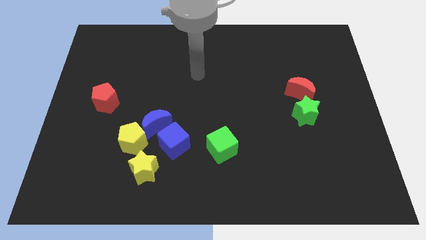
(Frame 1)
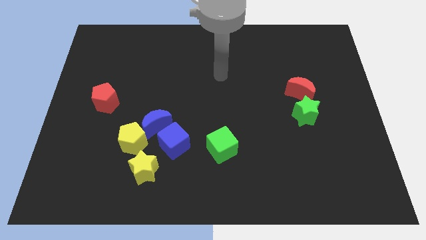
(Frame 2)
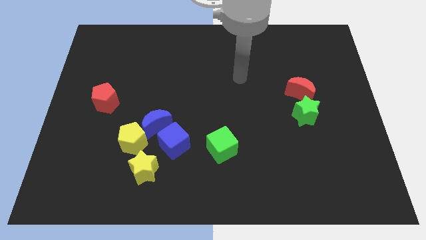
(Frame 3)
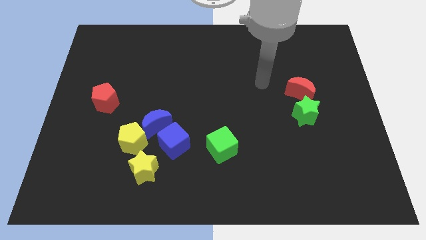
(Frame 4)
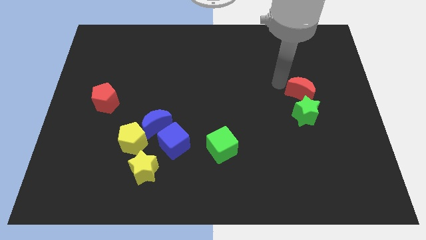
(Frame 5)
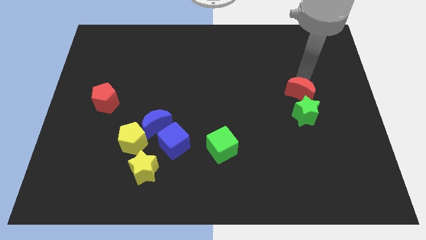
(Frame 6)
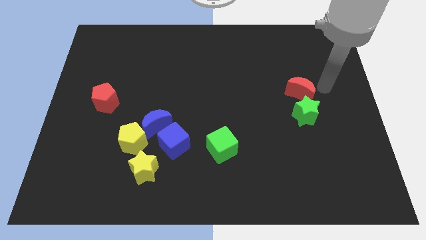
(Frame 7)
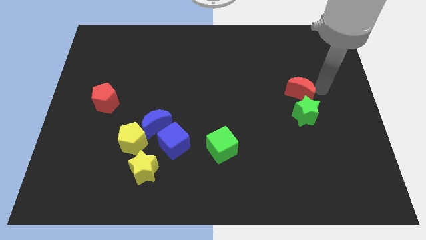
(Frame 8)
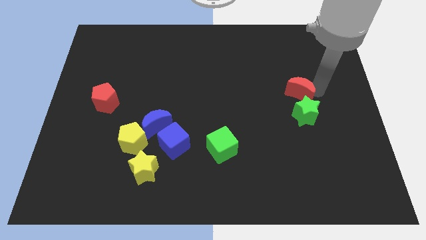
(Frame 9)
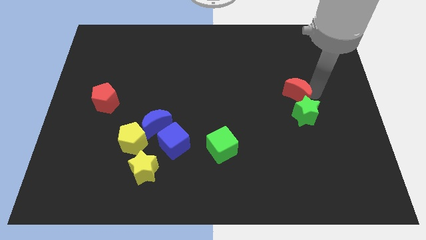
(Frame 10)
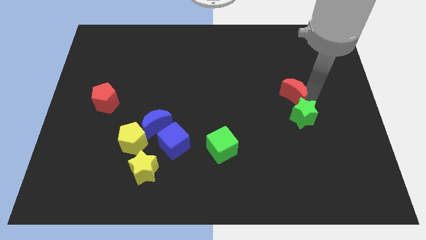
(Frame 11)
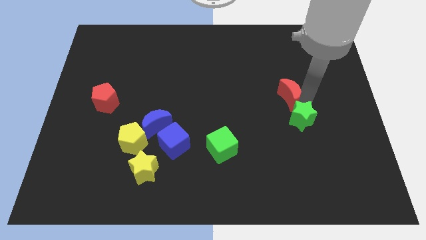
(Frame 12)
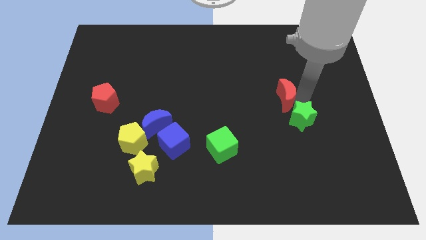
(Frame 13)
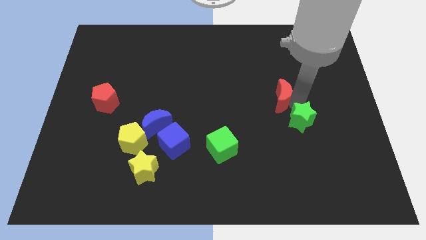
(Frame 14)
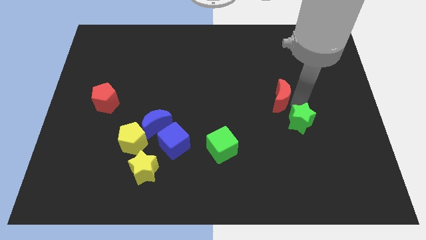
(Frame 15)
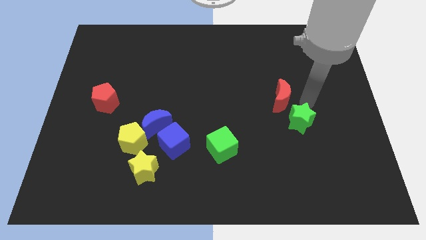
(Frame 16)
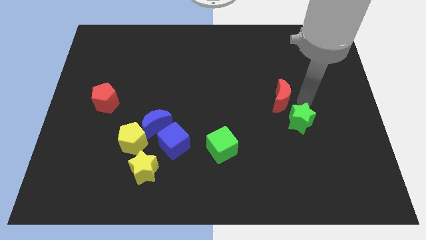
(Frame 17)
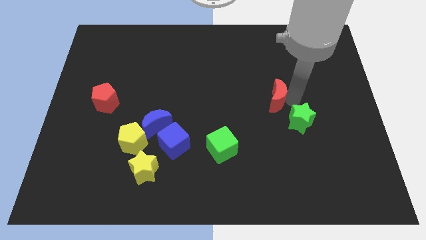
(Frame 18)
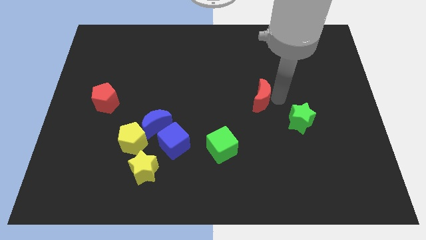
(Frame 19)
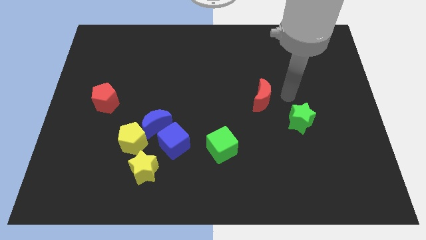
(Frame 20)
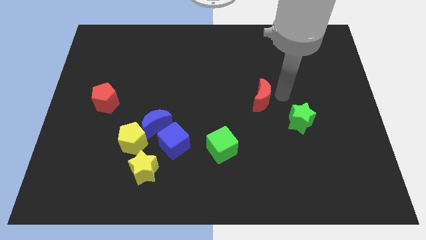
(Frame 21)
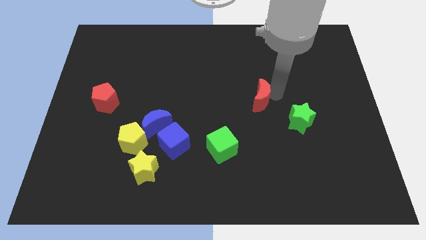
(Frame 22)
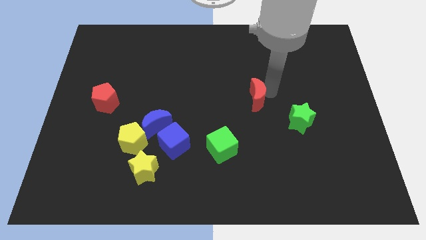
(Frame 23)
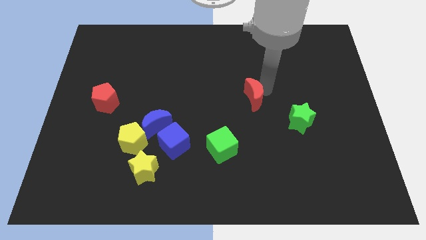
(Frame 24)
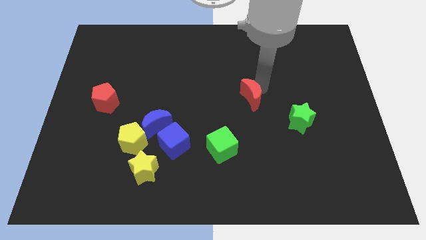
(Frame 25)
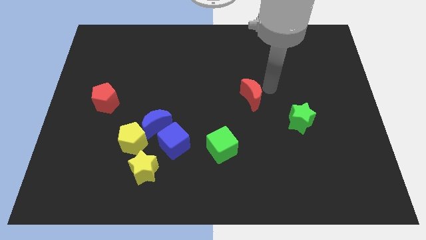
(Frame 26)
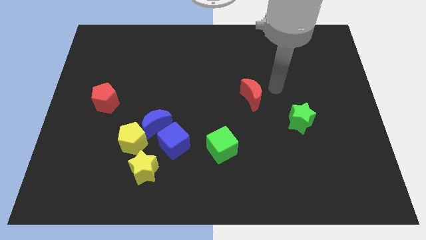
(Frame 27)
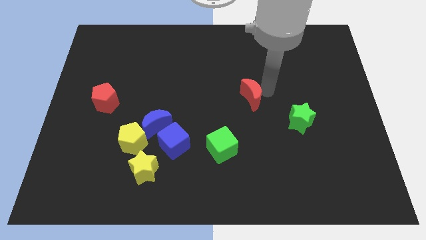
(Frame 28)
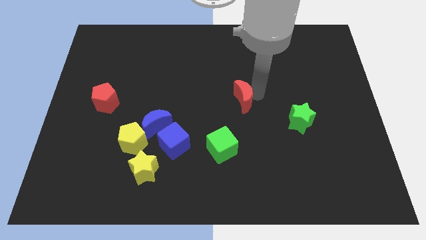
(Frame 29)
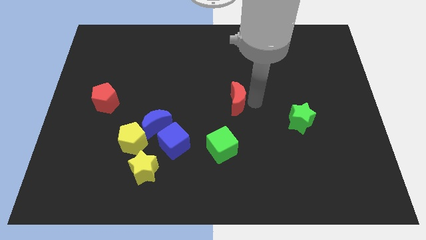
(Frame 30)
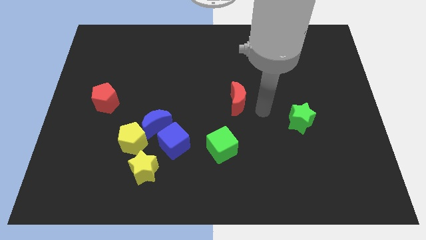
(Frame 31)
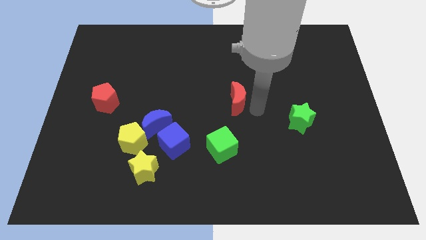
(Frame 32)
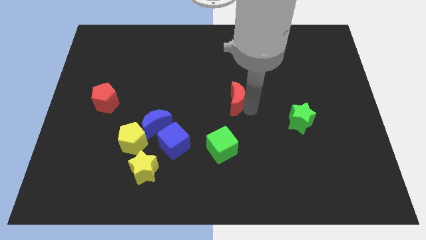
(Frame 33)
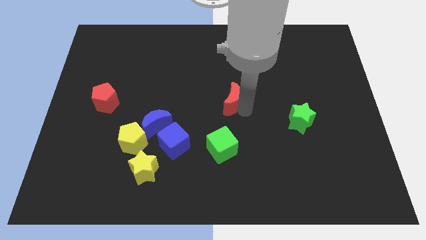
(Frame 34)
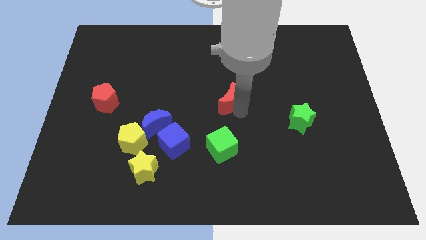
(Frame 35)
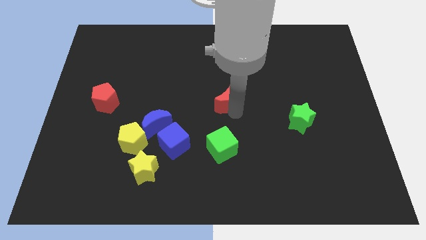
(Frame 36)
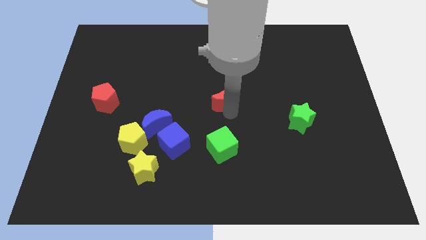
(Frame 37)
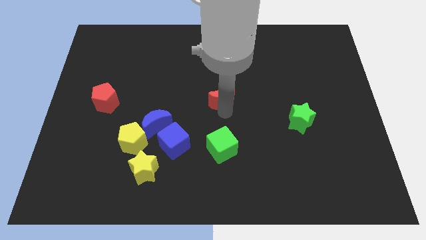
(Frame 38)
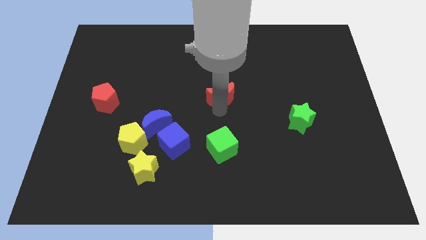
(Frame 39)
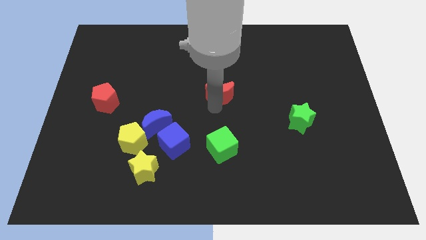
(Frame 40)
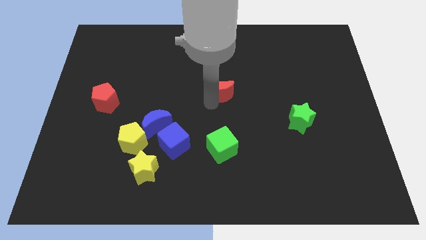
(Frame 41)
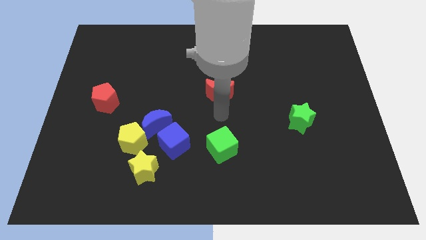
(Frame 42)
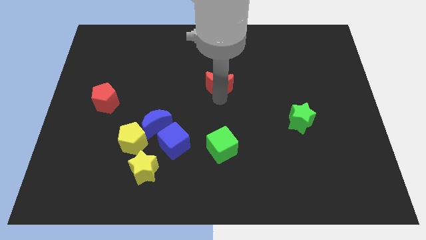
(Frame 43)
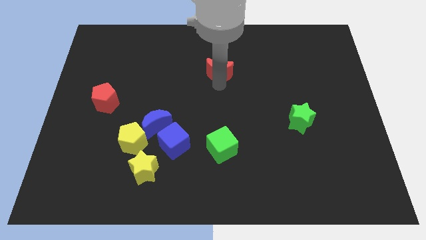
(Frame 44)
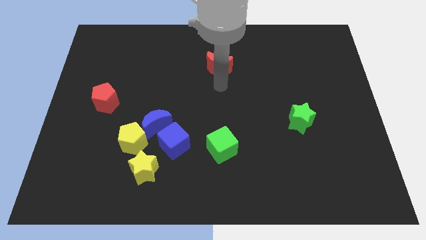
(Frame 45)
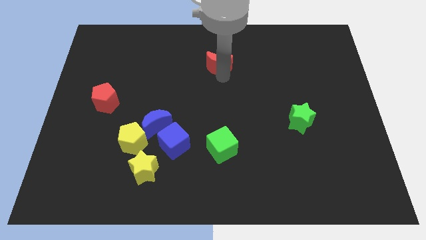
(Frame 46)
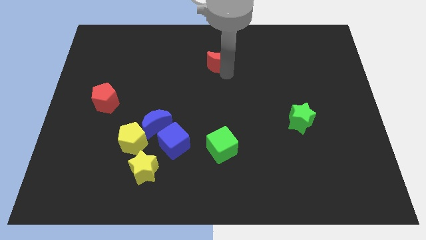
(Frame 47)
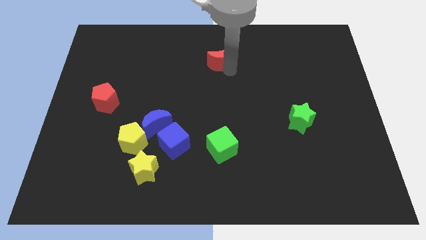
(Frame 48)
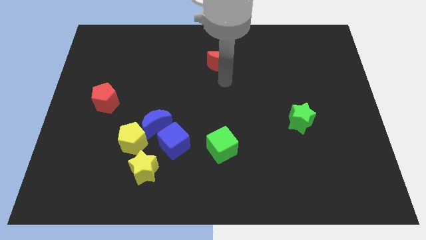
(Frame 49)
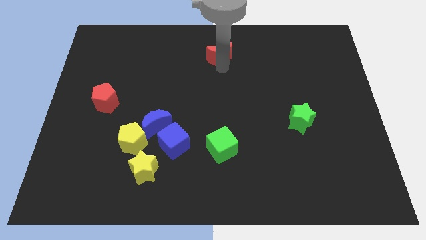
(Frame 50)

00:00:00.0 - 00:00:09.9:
move the red moon to the top side

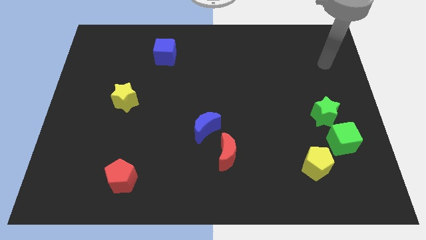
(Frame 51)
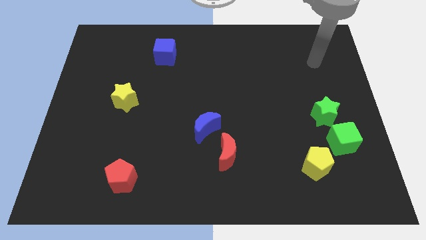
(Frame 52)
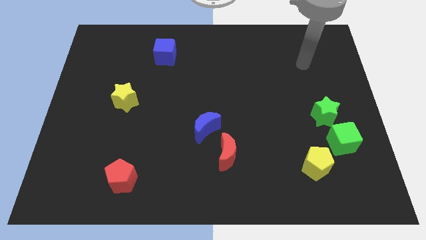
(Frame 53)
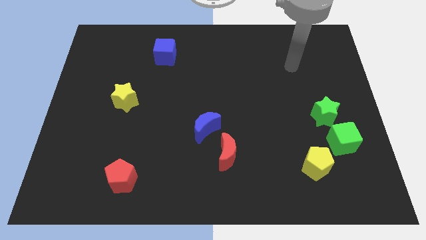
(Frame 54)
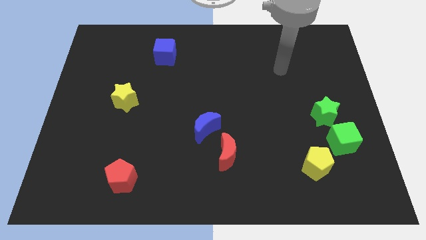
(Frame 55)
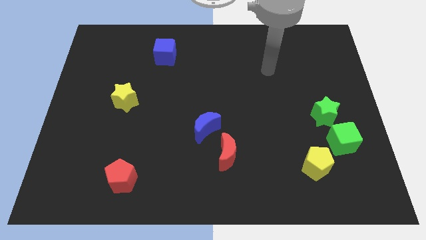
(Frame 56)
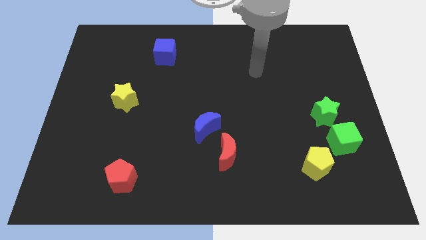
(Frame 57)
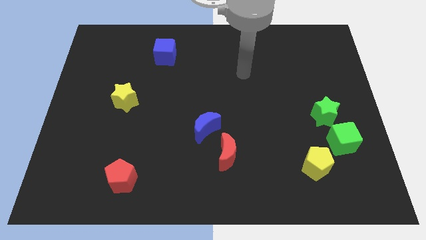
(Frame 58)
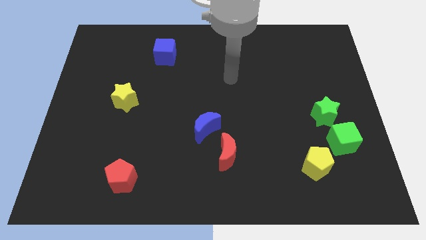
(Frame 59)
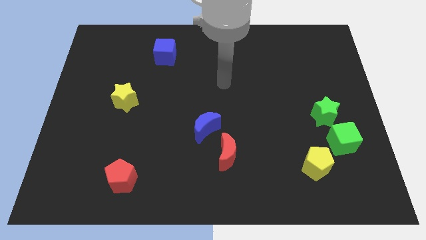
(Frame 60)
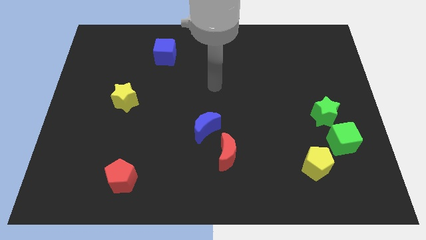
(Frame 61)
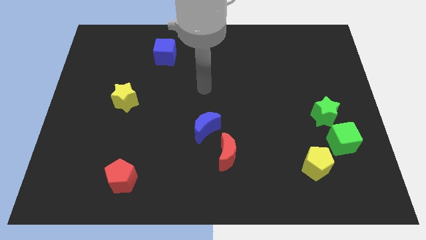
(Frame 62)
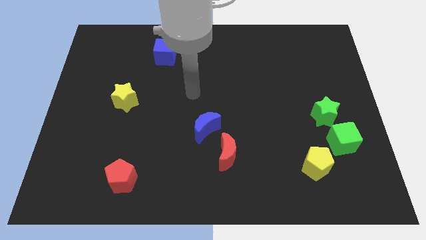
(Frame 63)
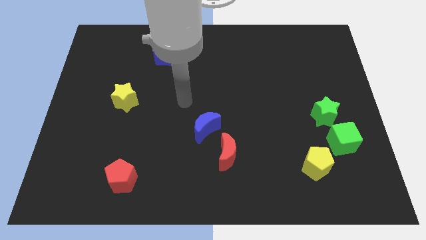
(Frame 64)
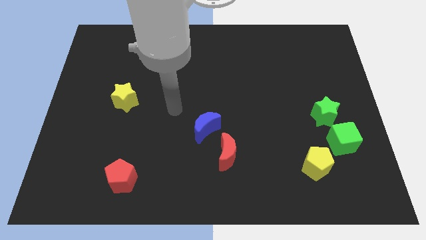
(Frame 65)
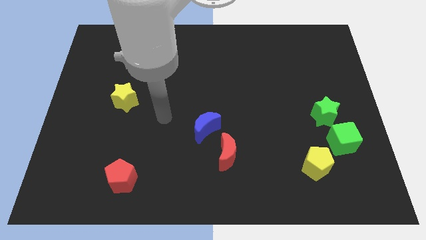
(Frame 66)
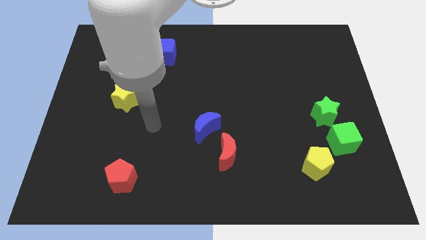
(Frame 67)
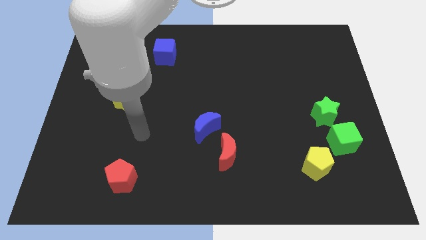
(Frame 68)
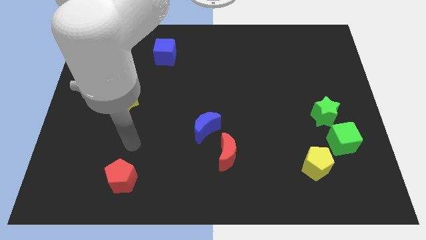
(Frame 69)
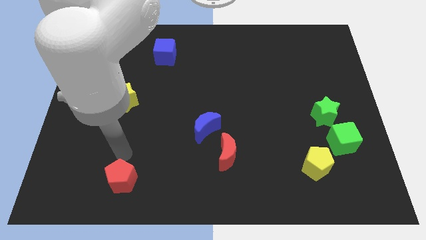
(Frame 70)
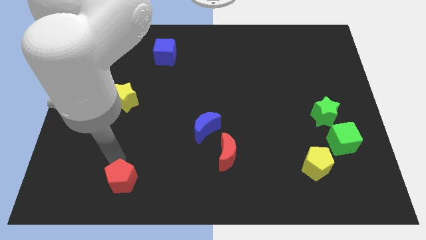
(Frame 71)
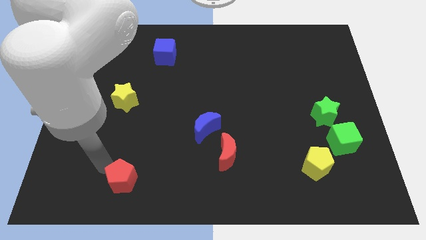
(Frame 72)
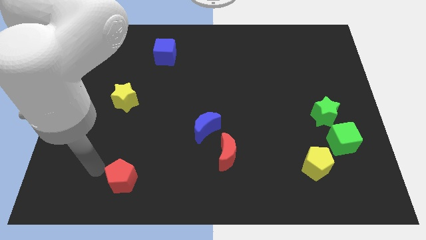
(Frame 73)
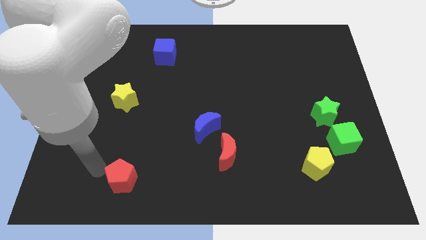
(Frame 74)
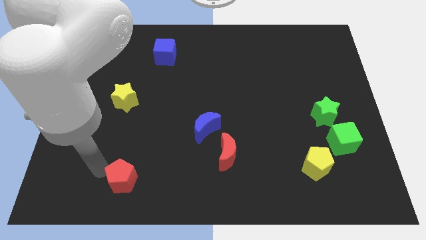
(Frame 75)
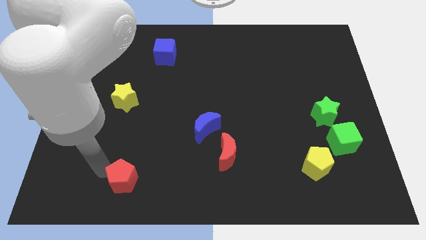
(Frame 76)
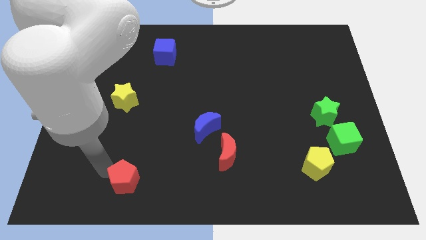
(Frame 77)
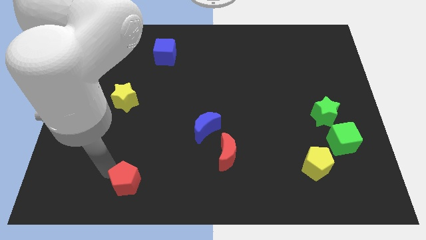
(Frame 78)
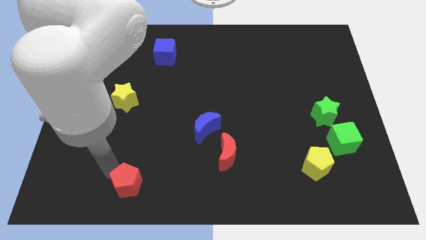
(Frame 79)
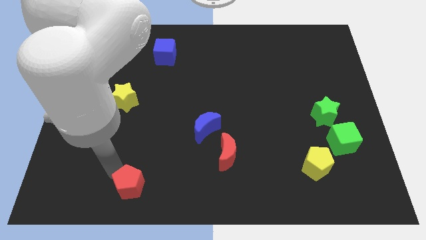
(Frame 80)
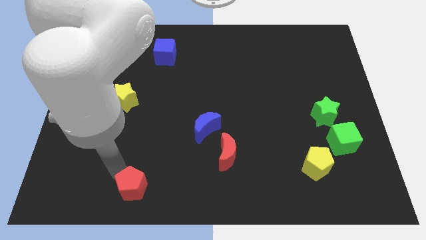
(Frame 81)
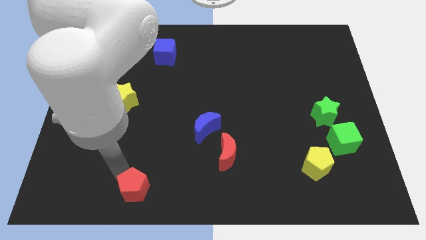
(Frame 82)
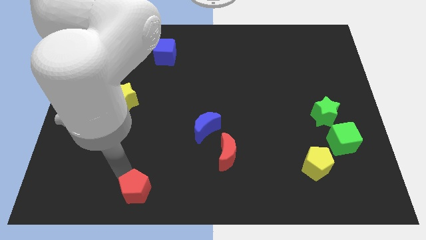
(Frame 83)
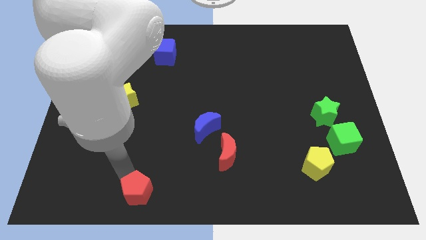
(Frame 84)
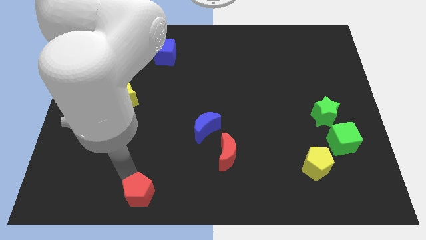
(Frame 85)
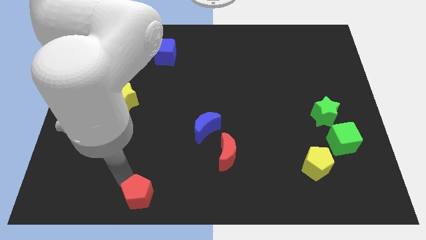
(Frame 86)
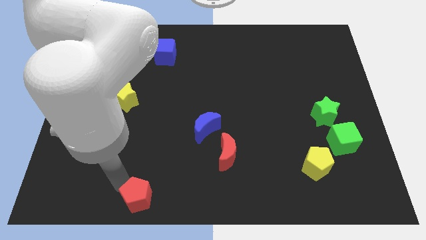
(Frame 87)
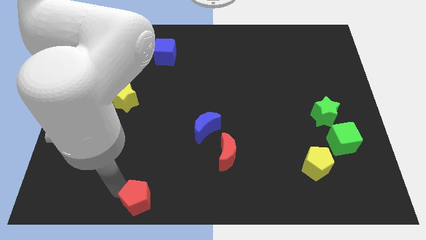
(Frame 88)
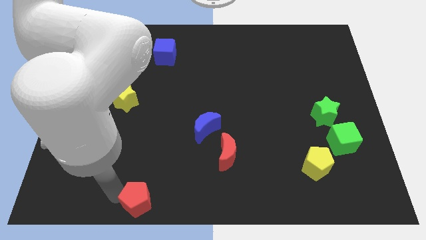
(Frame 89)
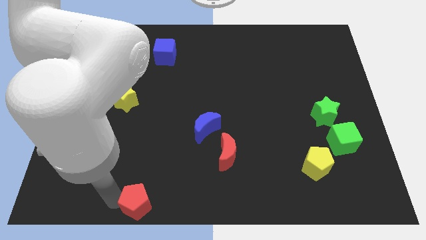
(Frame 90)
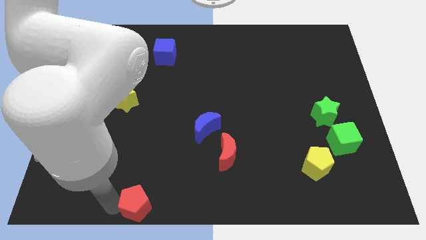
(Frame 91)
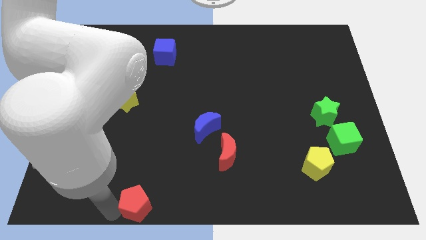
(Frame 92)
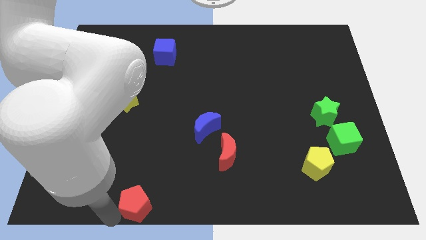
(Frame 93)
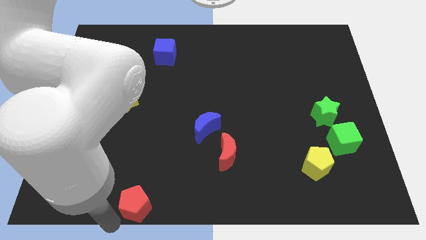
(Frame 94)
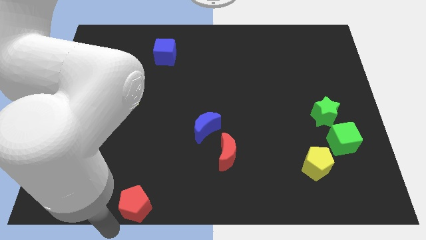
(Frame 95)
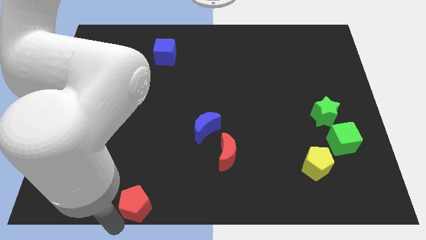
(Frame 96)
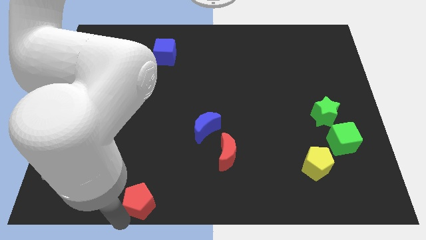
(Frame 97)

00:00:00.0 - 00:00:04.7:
put the red pentagon to the bottom
